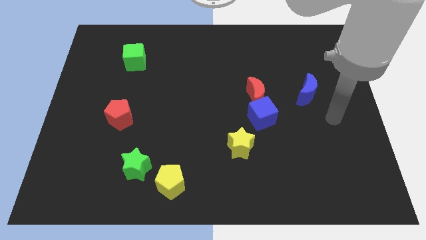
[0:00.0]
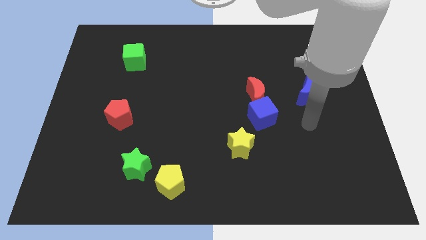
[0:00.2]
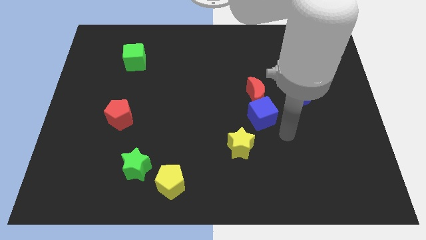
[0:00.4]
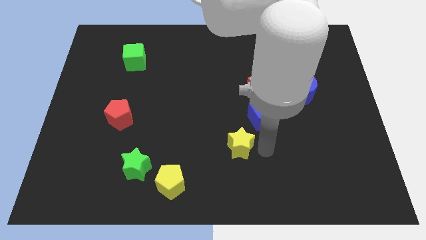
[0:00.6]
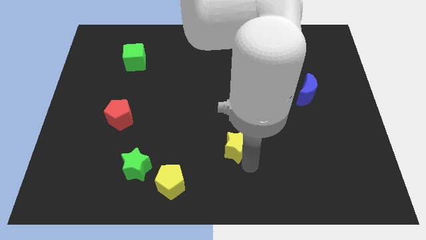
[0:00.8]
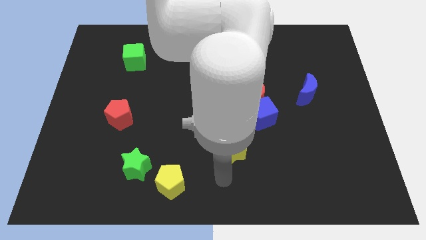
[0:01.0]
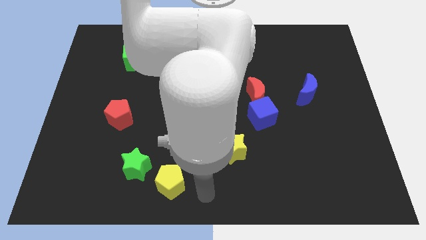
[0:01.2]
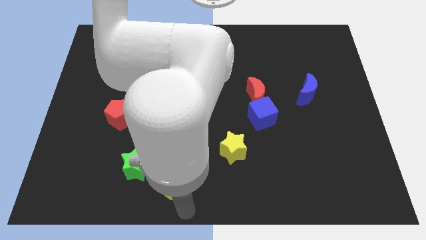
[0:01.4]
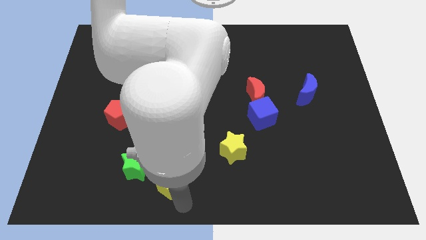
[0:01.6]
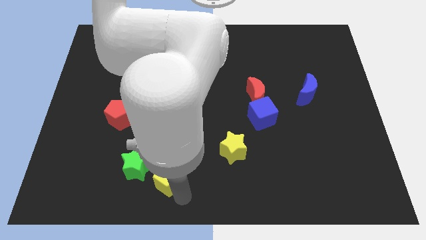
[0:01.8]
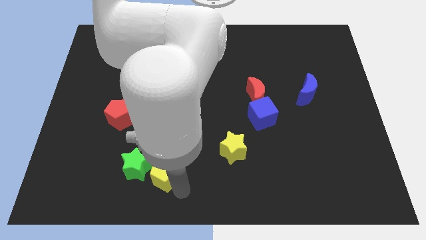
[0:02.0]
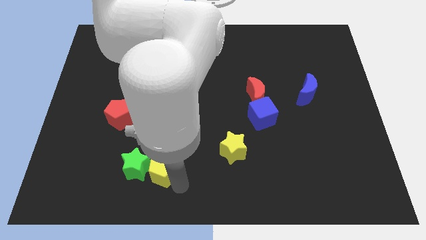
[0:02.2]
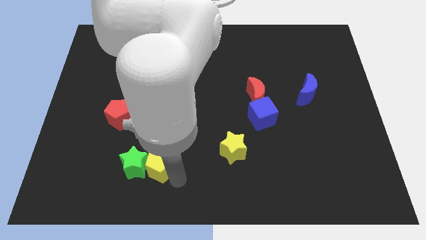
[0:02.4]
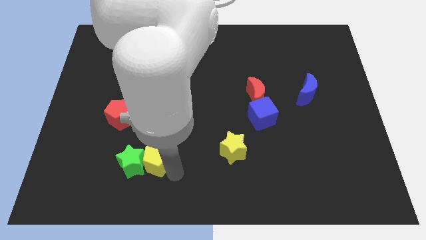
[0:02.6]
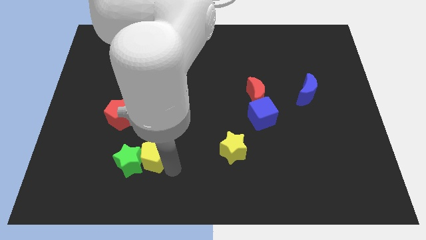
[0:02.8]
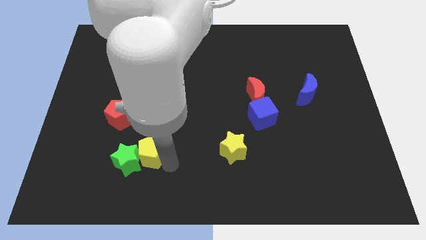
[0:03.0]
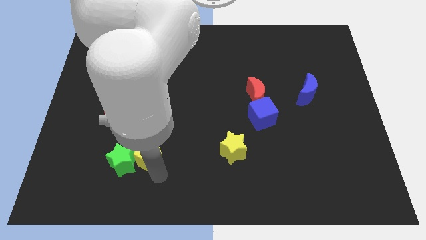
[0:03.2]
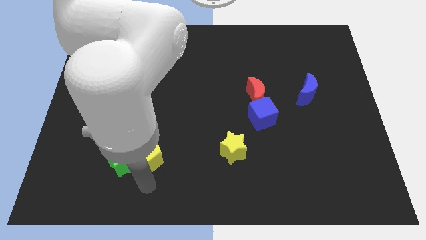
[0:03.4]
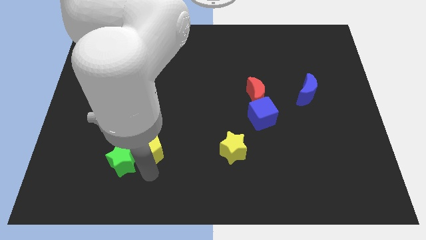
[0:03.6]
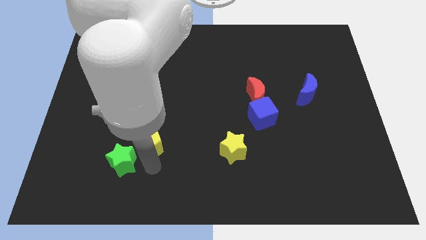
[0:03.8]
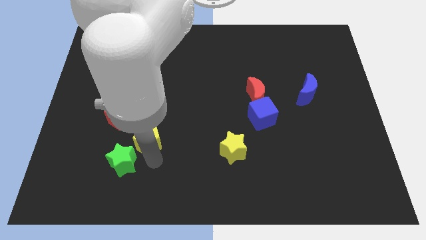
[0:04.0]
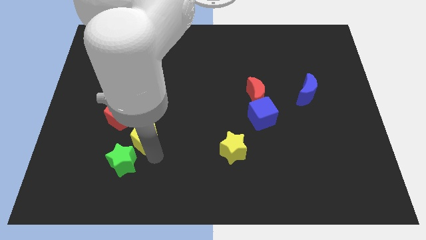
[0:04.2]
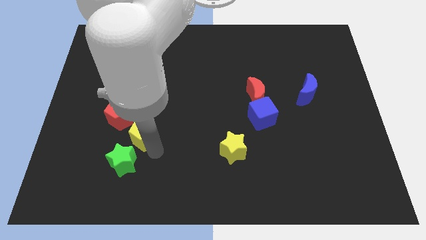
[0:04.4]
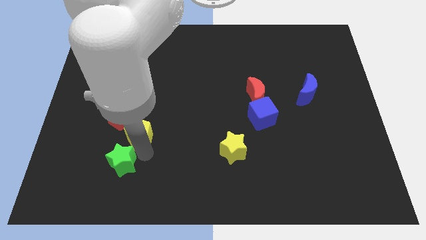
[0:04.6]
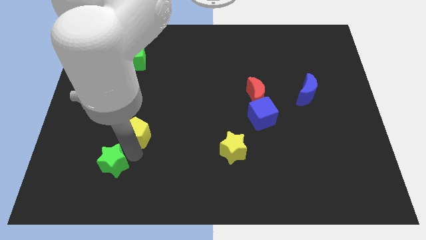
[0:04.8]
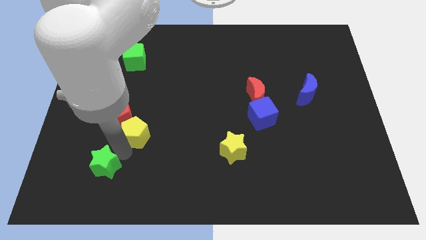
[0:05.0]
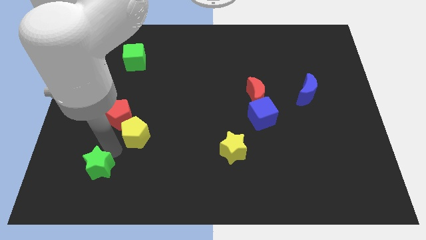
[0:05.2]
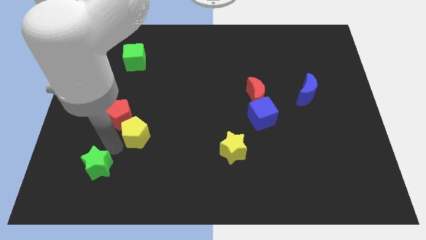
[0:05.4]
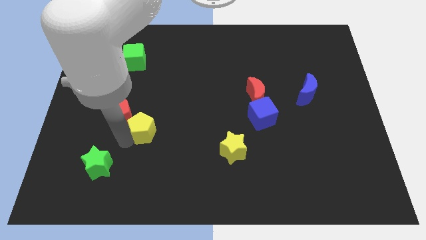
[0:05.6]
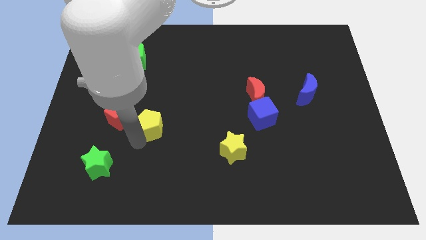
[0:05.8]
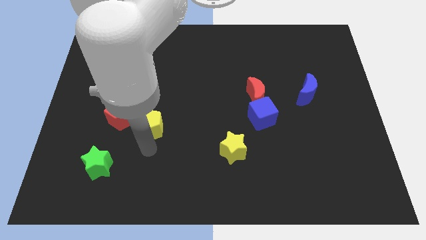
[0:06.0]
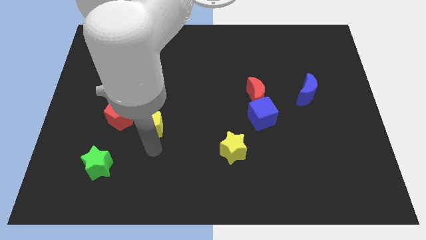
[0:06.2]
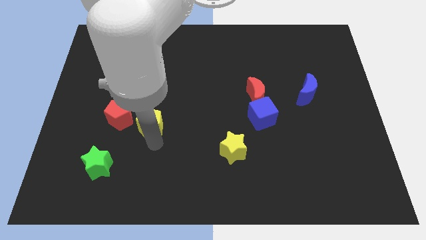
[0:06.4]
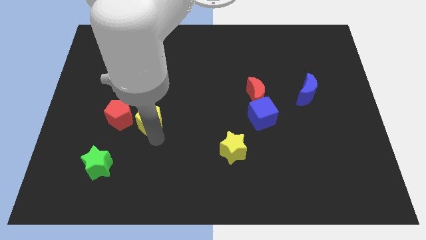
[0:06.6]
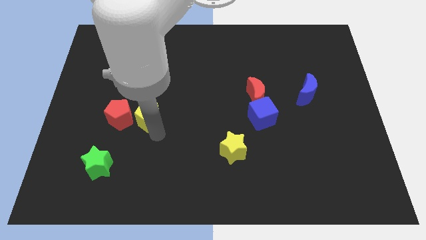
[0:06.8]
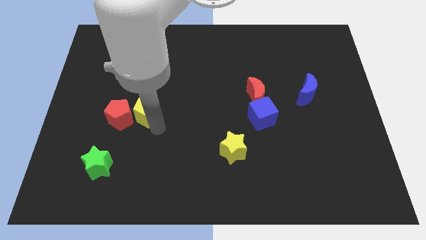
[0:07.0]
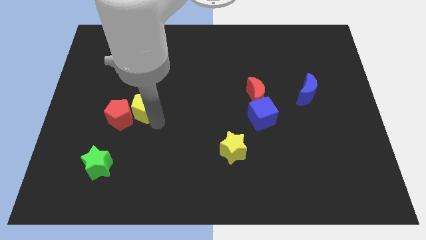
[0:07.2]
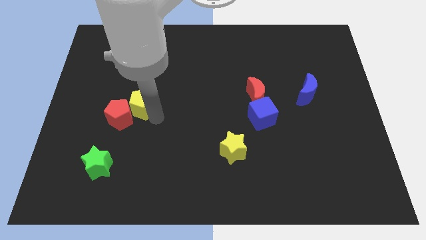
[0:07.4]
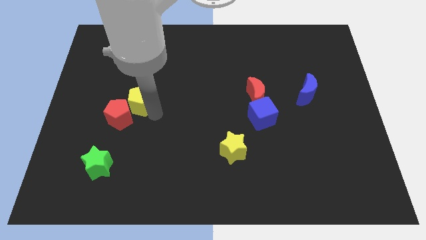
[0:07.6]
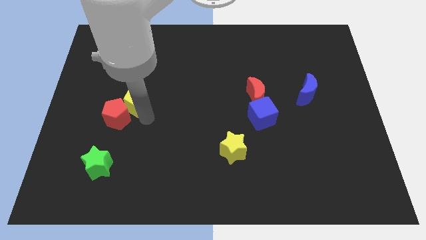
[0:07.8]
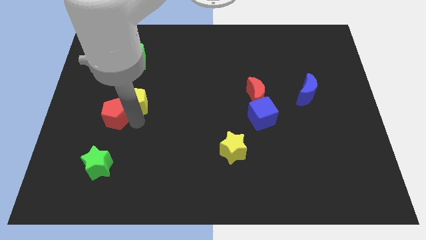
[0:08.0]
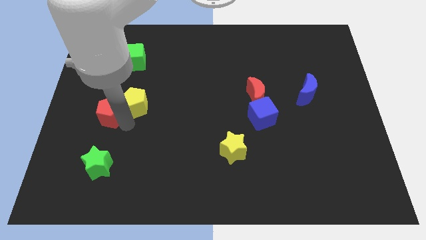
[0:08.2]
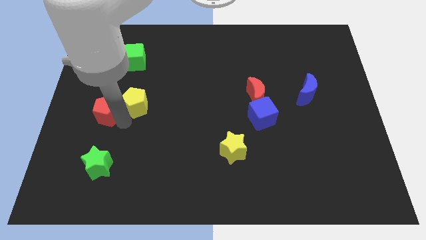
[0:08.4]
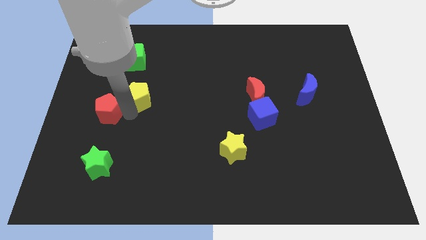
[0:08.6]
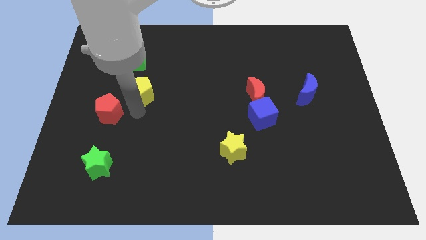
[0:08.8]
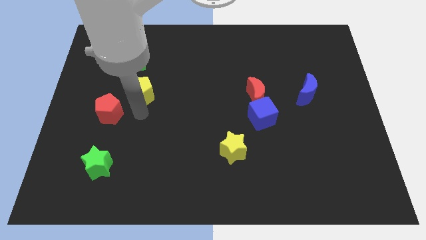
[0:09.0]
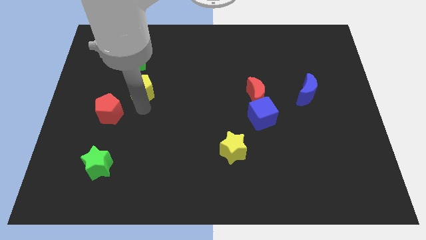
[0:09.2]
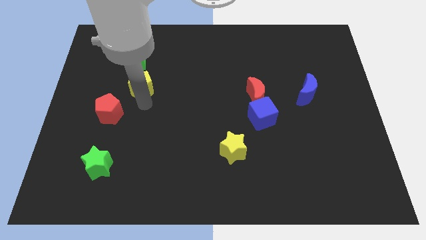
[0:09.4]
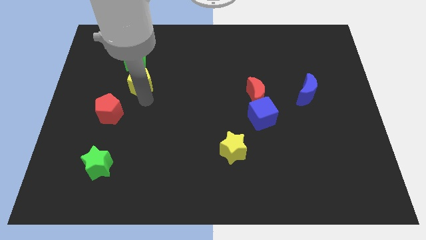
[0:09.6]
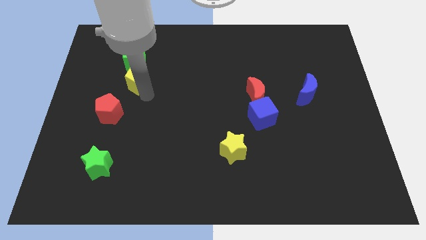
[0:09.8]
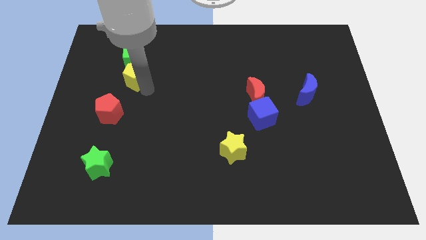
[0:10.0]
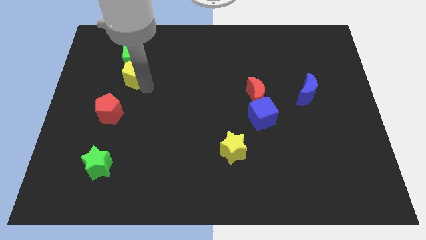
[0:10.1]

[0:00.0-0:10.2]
move the yellow pentagon close to the green cube

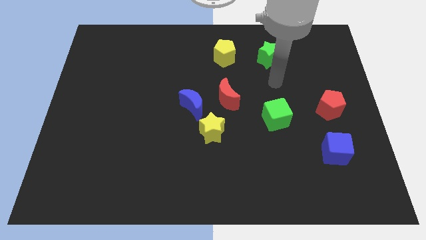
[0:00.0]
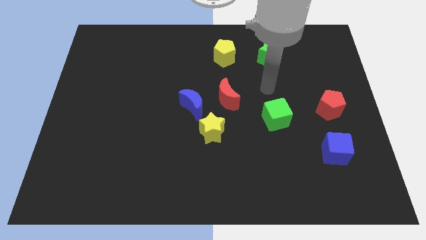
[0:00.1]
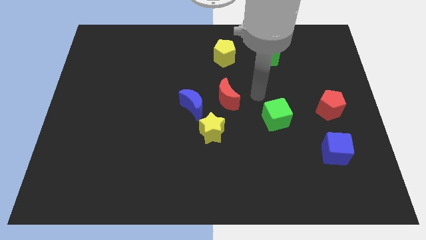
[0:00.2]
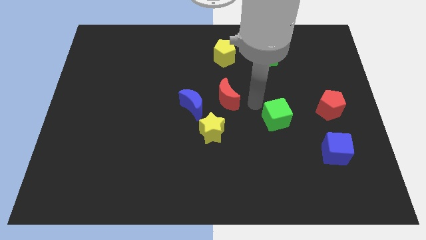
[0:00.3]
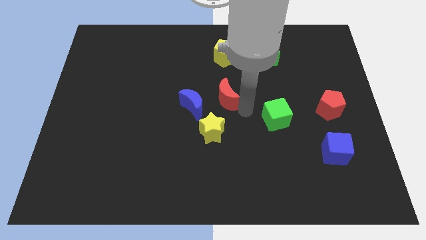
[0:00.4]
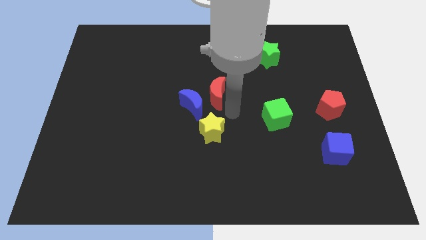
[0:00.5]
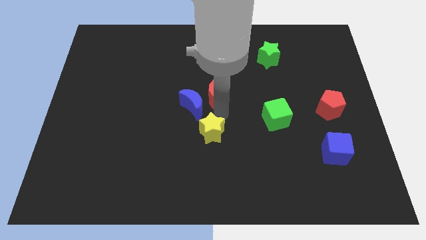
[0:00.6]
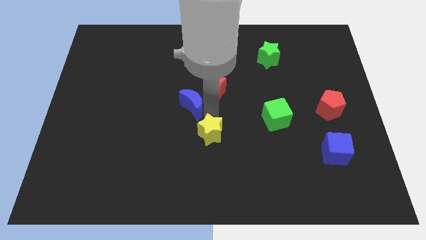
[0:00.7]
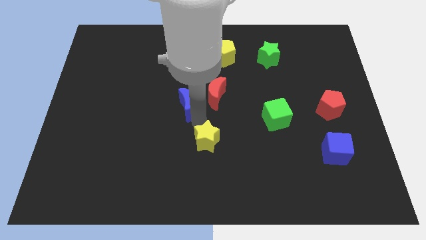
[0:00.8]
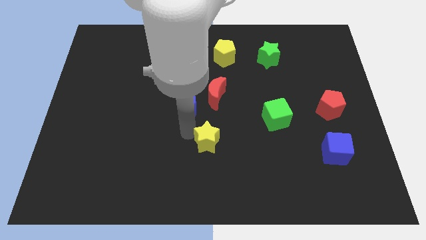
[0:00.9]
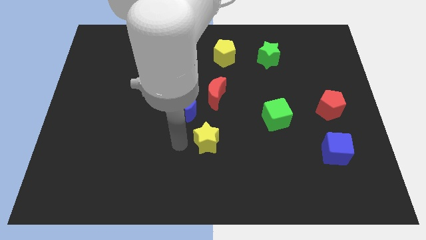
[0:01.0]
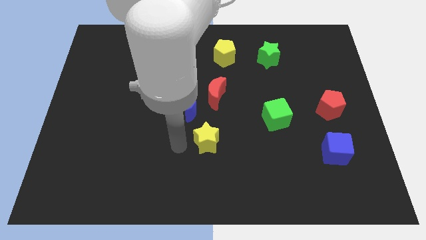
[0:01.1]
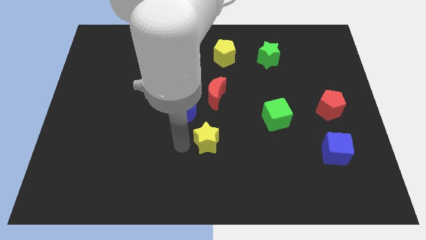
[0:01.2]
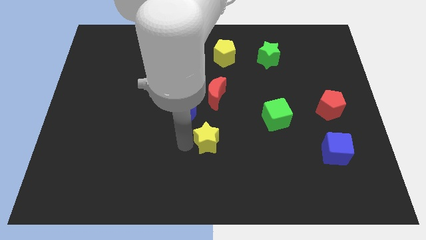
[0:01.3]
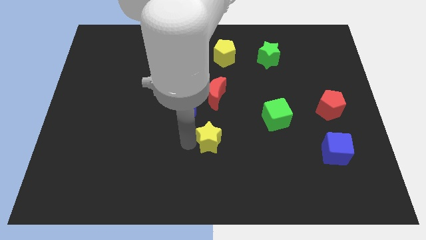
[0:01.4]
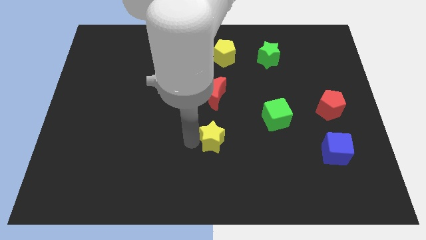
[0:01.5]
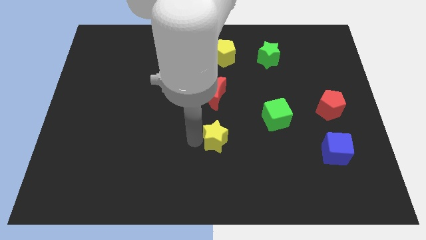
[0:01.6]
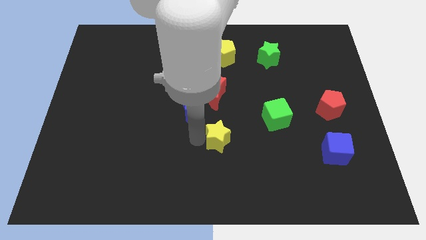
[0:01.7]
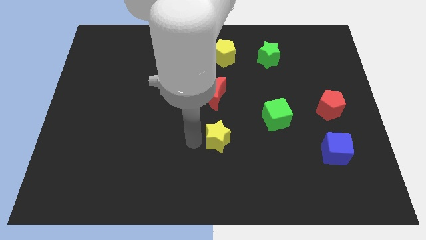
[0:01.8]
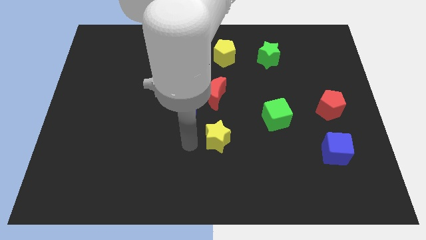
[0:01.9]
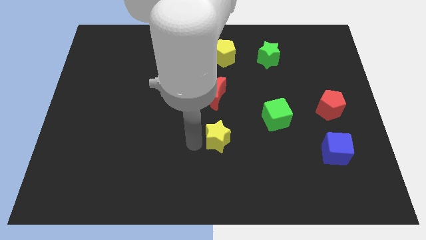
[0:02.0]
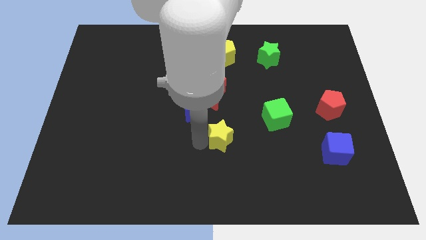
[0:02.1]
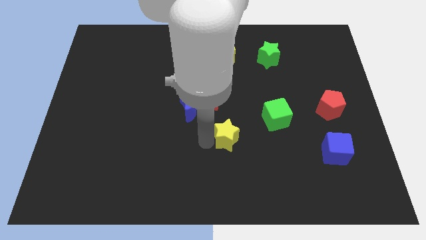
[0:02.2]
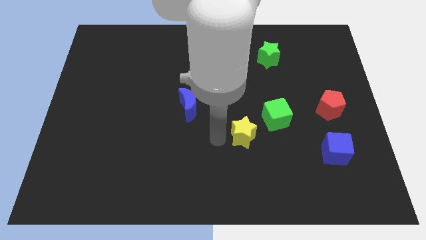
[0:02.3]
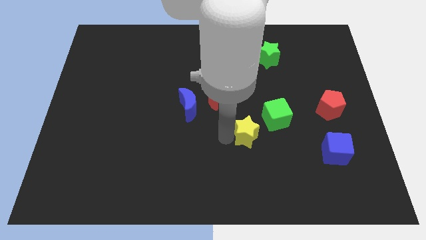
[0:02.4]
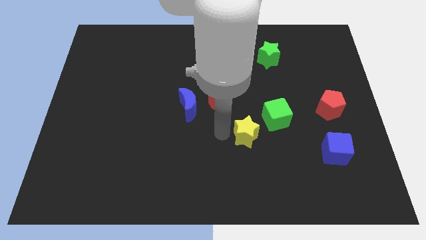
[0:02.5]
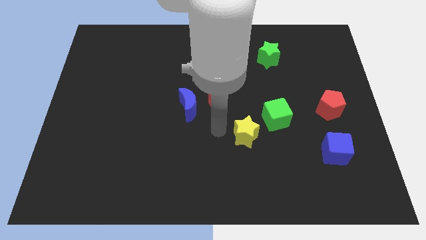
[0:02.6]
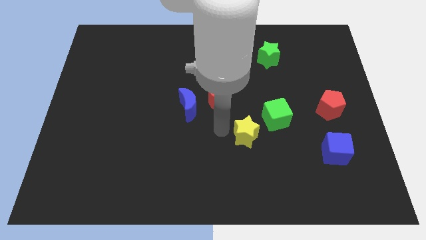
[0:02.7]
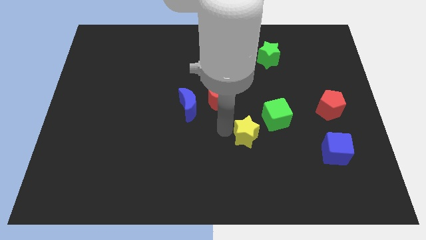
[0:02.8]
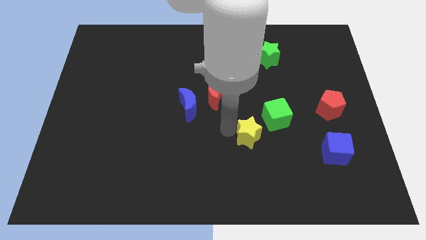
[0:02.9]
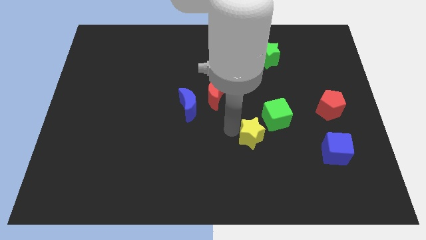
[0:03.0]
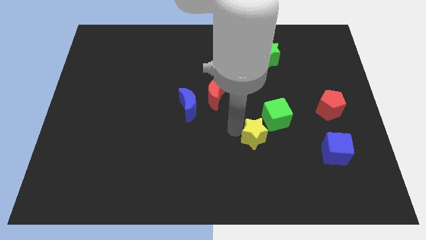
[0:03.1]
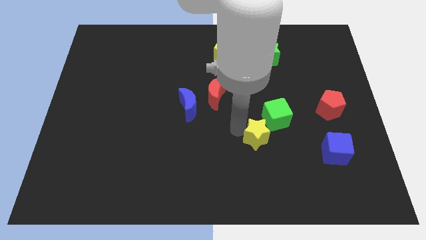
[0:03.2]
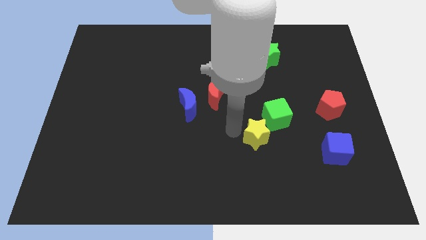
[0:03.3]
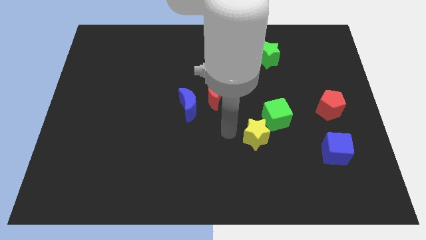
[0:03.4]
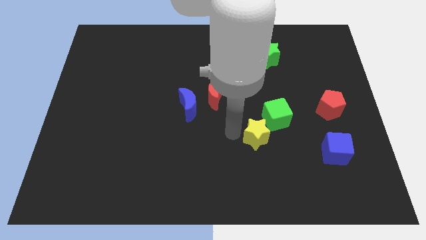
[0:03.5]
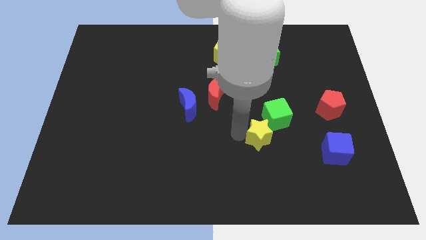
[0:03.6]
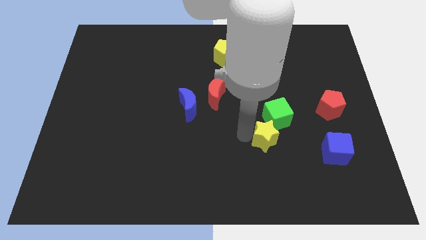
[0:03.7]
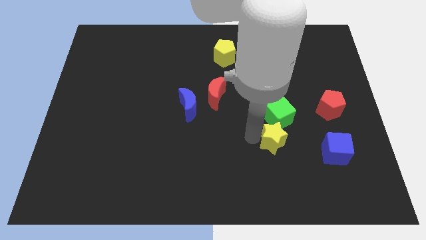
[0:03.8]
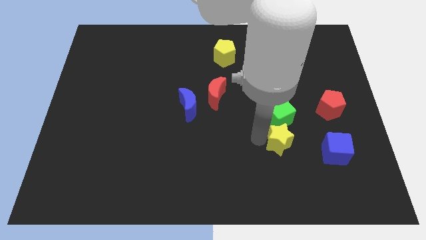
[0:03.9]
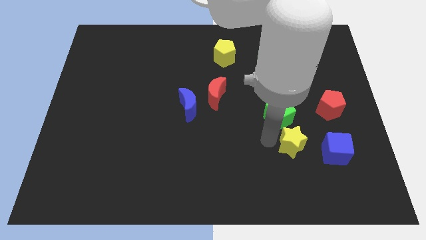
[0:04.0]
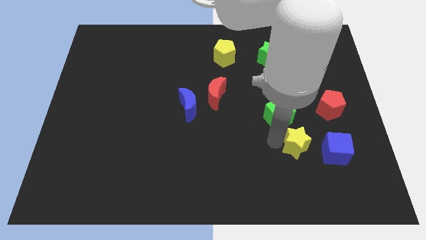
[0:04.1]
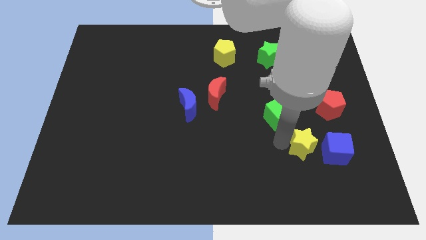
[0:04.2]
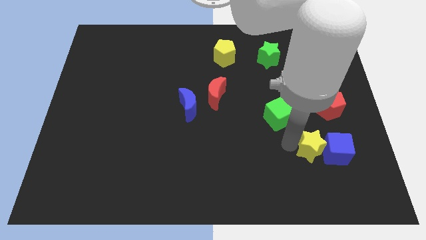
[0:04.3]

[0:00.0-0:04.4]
move the yellow star next to the blue cube
